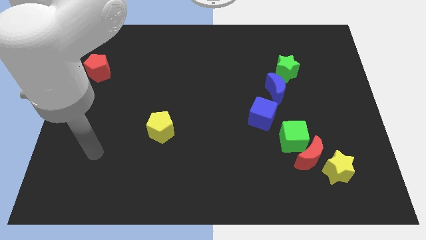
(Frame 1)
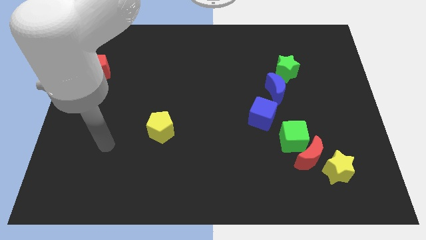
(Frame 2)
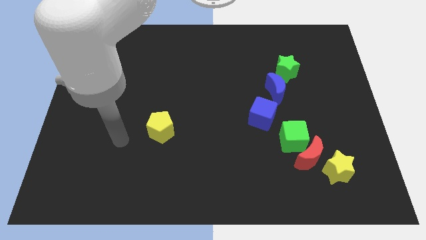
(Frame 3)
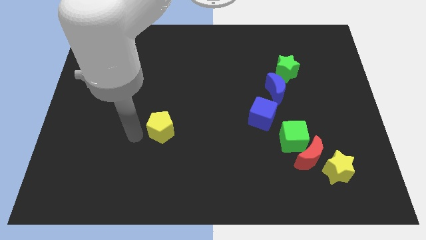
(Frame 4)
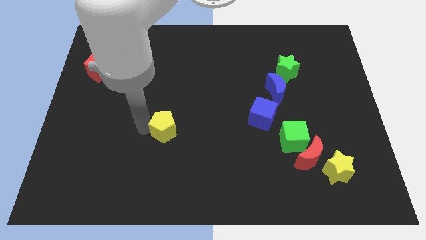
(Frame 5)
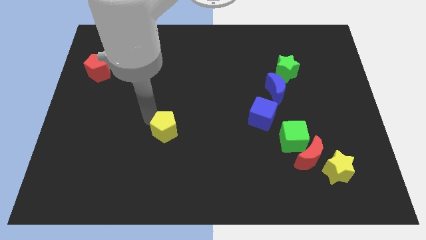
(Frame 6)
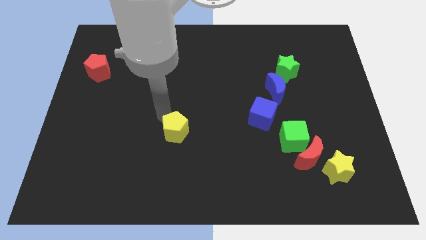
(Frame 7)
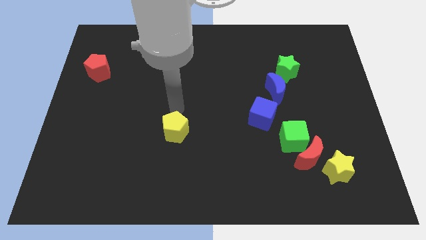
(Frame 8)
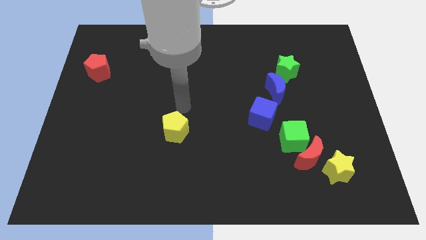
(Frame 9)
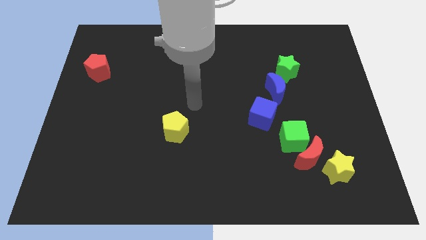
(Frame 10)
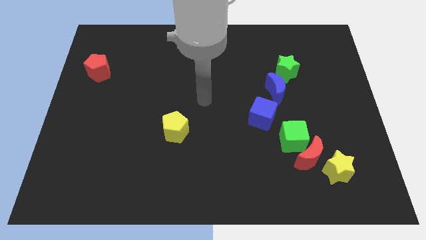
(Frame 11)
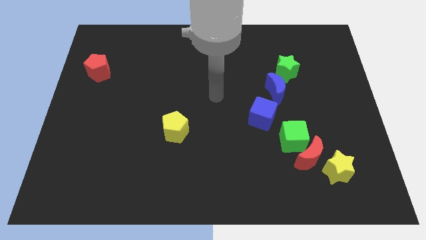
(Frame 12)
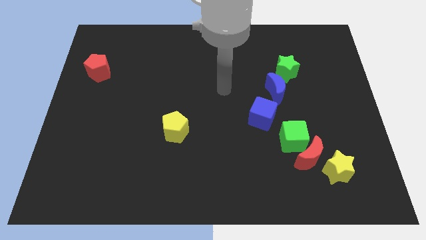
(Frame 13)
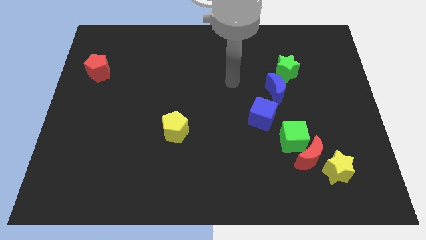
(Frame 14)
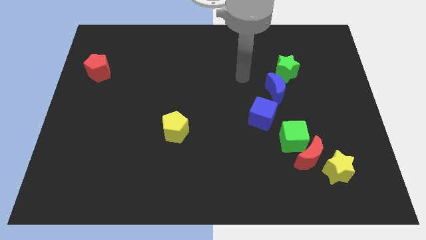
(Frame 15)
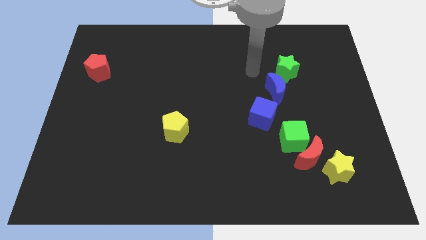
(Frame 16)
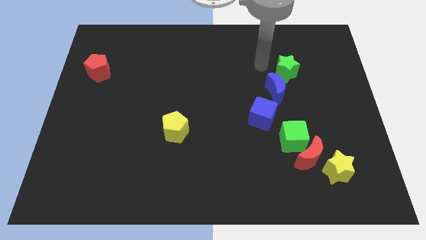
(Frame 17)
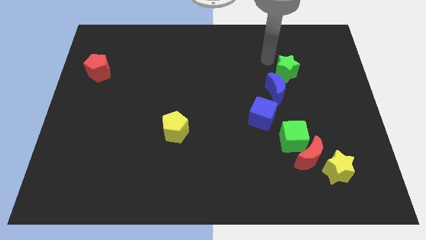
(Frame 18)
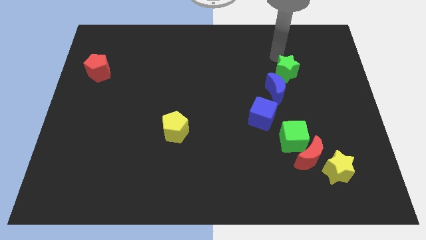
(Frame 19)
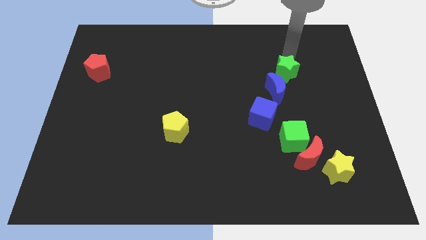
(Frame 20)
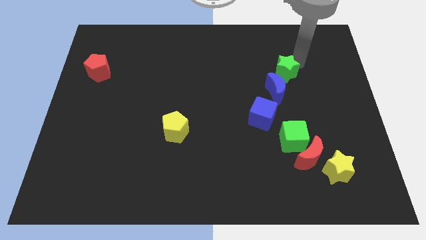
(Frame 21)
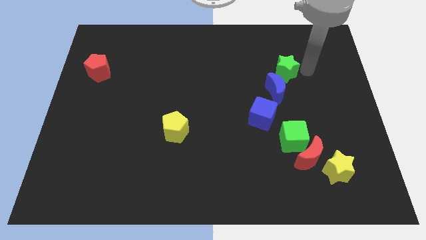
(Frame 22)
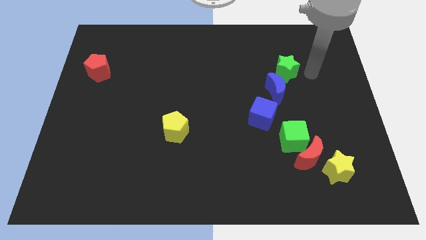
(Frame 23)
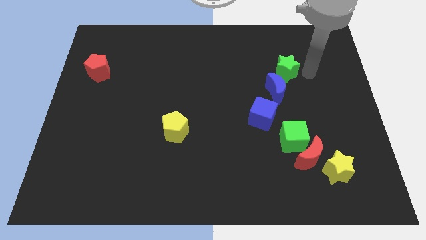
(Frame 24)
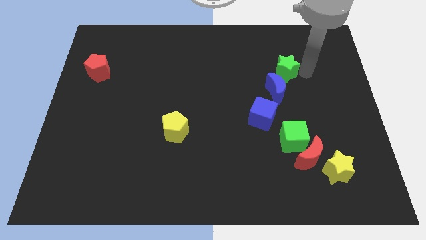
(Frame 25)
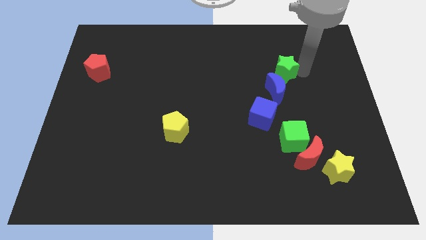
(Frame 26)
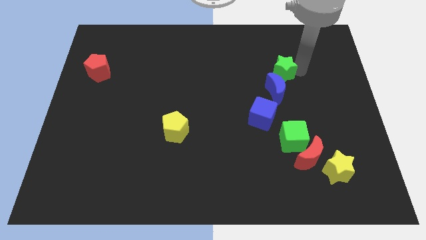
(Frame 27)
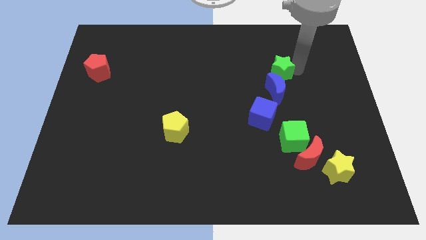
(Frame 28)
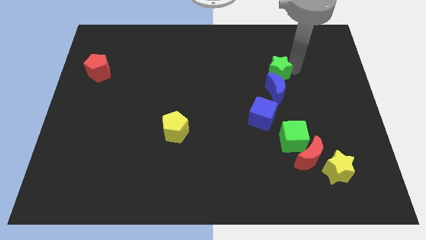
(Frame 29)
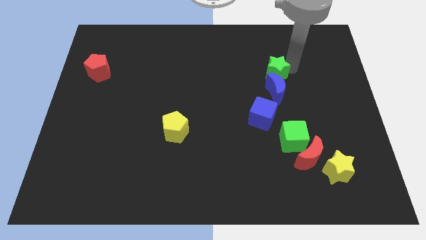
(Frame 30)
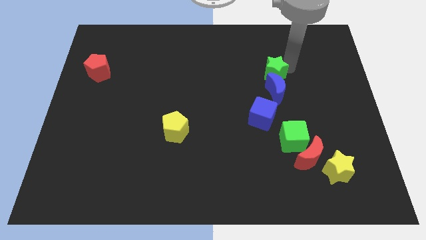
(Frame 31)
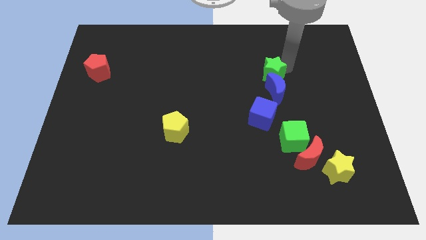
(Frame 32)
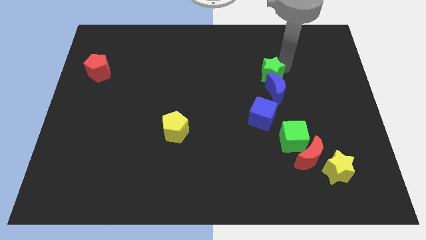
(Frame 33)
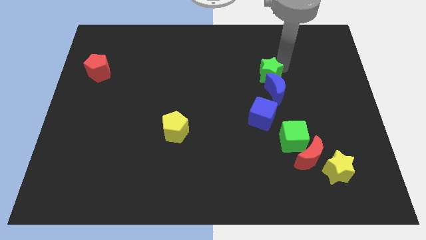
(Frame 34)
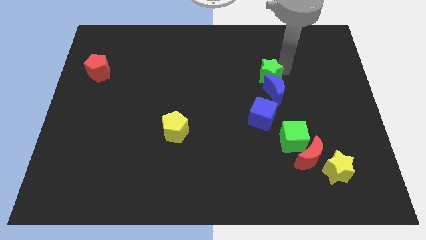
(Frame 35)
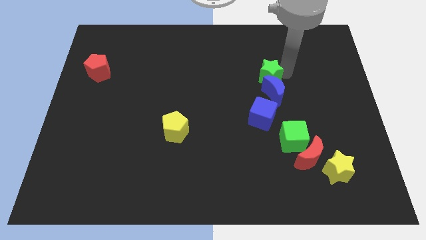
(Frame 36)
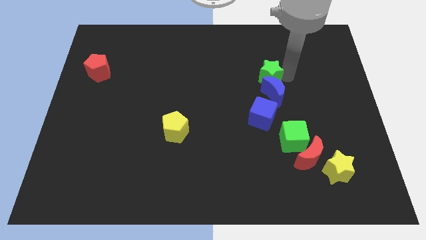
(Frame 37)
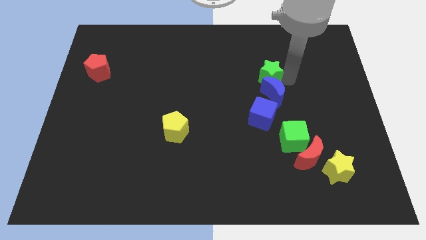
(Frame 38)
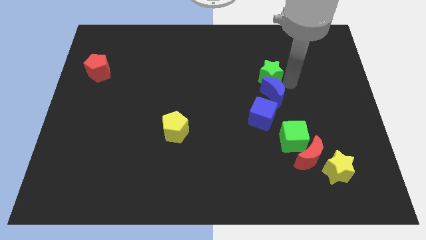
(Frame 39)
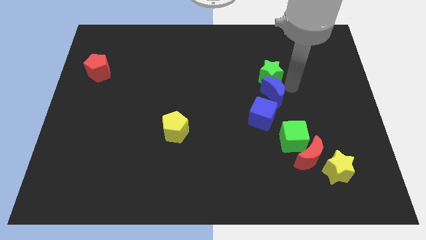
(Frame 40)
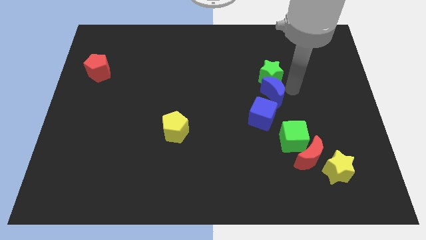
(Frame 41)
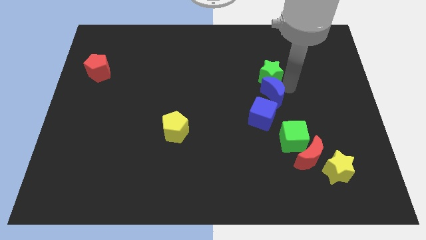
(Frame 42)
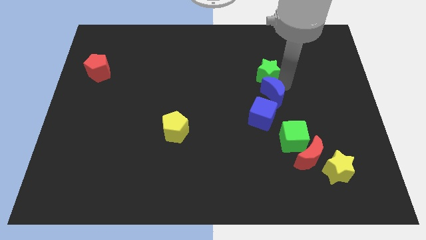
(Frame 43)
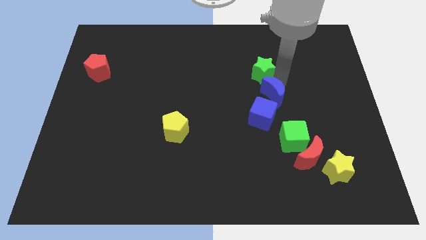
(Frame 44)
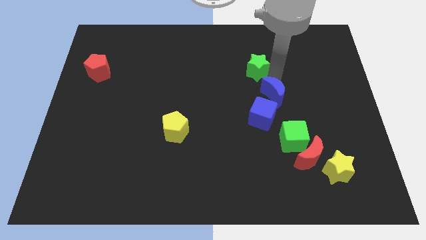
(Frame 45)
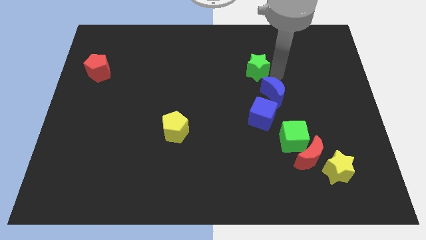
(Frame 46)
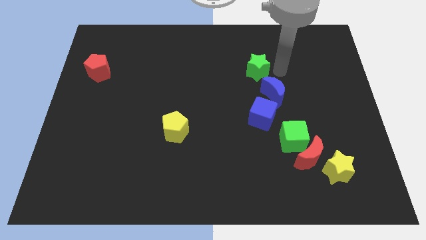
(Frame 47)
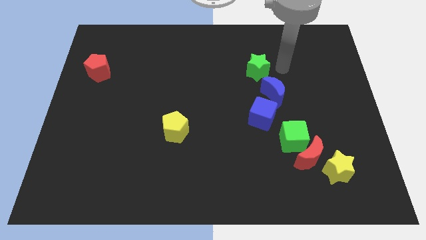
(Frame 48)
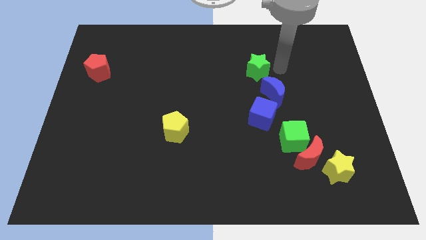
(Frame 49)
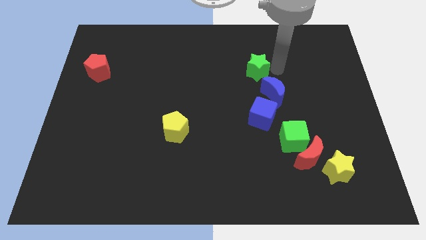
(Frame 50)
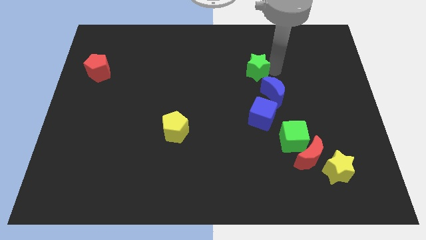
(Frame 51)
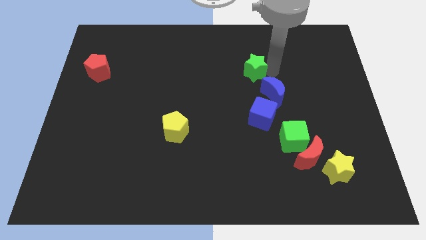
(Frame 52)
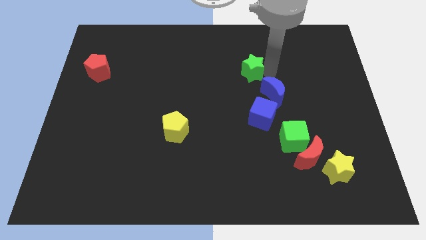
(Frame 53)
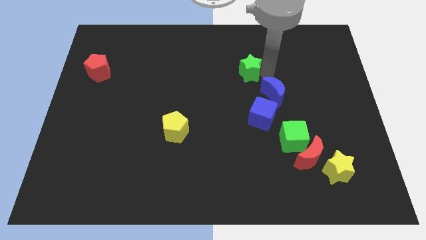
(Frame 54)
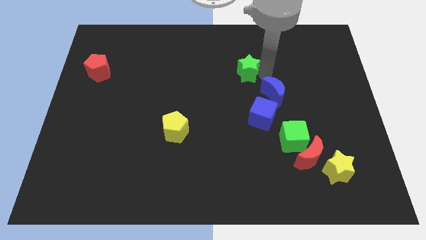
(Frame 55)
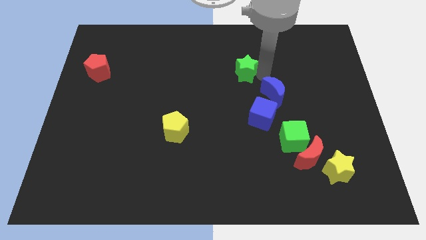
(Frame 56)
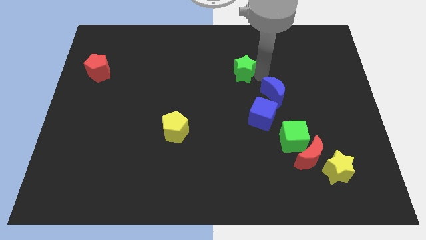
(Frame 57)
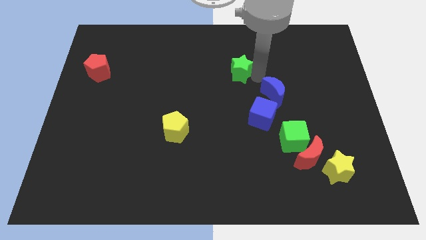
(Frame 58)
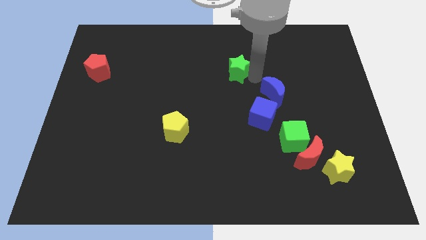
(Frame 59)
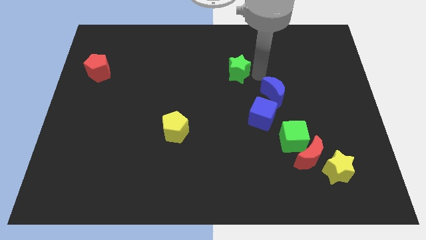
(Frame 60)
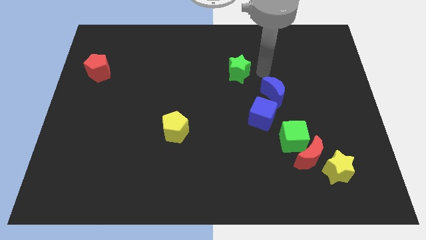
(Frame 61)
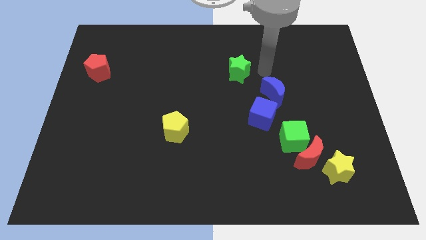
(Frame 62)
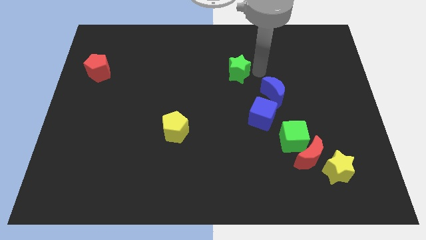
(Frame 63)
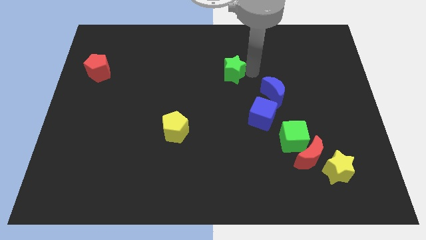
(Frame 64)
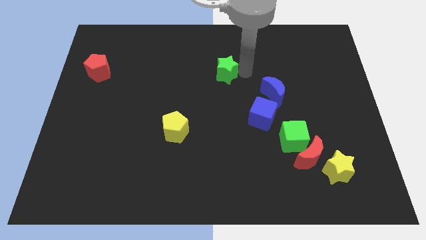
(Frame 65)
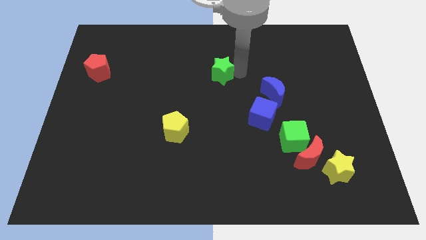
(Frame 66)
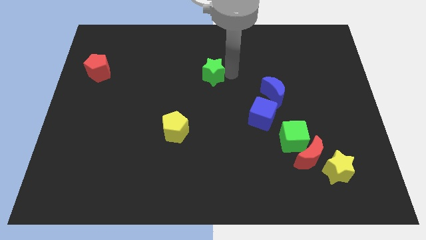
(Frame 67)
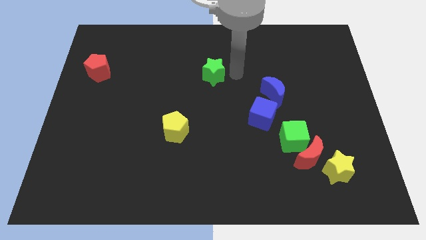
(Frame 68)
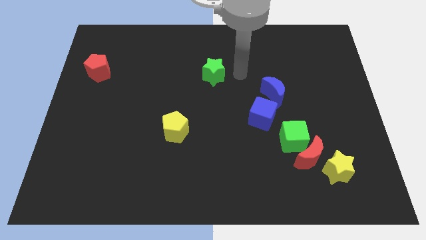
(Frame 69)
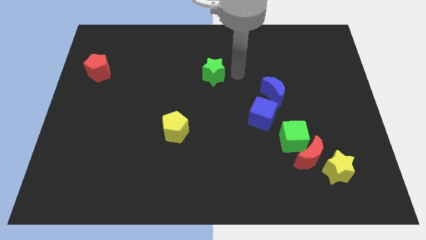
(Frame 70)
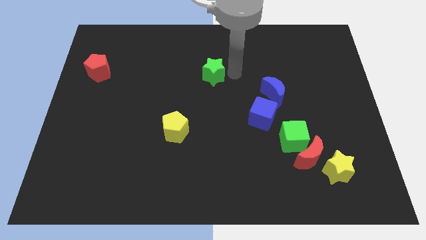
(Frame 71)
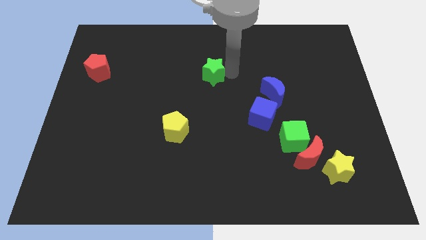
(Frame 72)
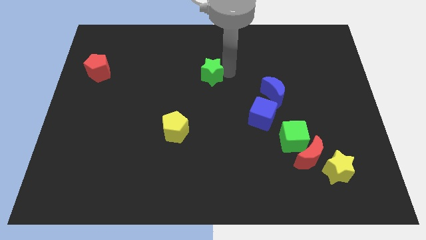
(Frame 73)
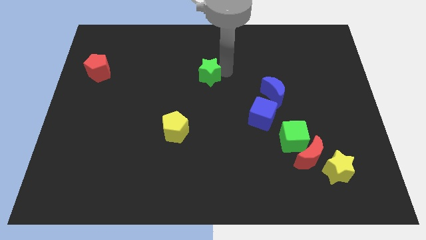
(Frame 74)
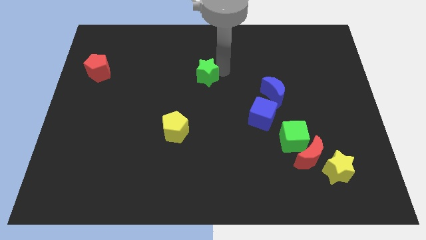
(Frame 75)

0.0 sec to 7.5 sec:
move the green star left

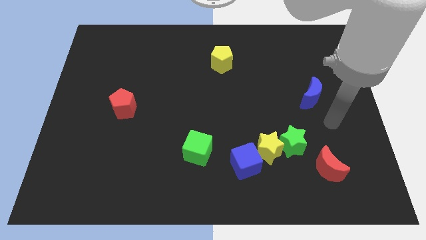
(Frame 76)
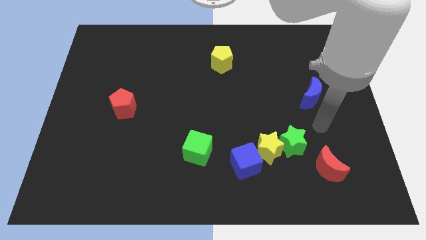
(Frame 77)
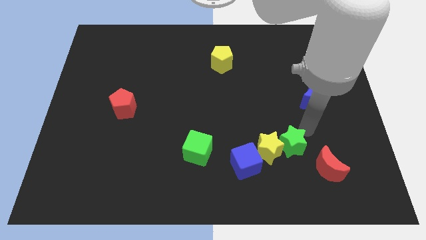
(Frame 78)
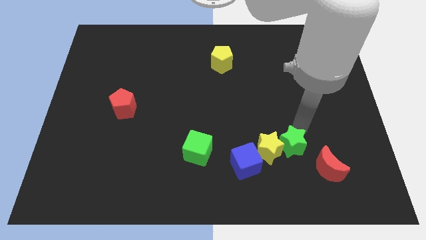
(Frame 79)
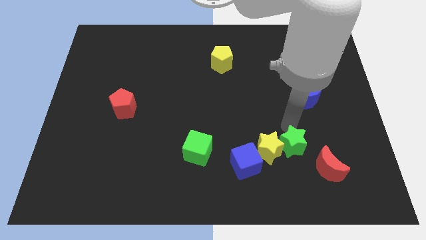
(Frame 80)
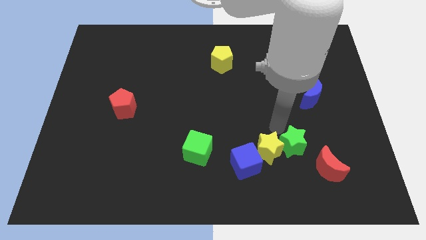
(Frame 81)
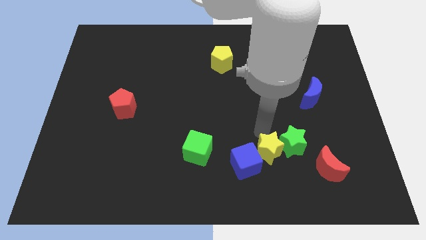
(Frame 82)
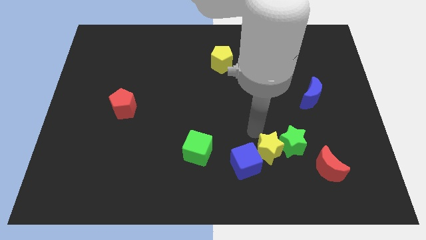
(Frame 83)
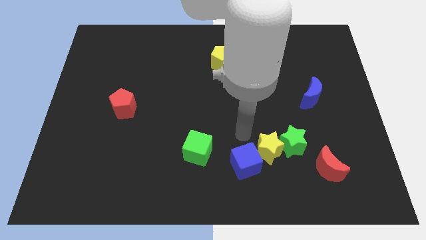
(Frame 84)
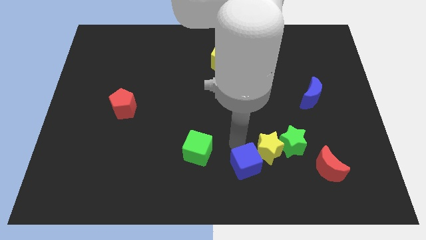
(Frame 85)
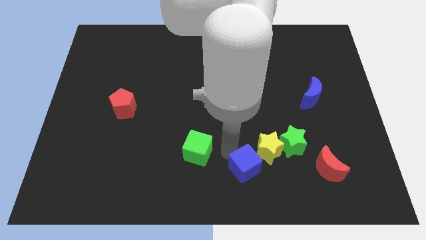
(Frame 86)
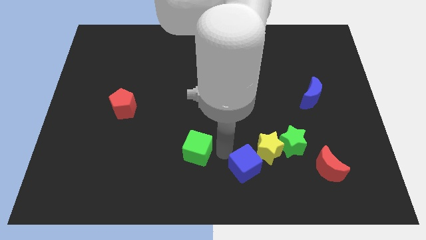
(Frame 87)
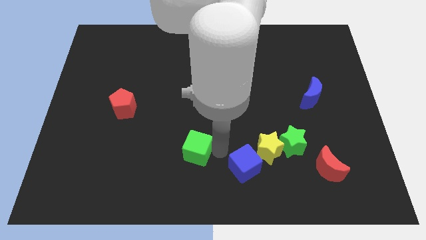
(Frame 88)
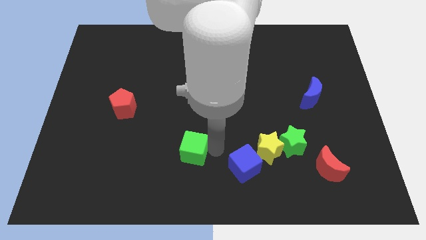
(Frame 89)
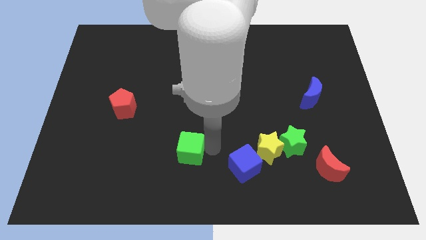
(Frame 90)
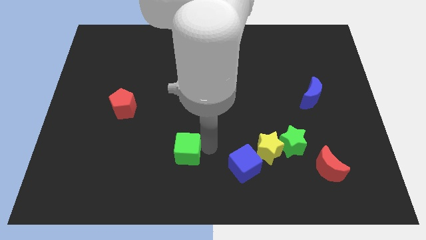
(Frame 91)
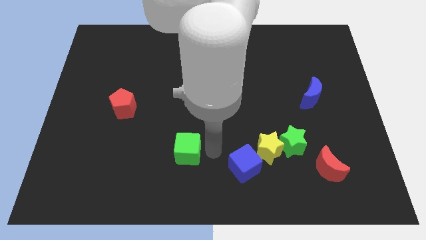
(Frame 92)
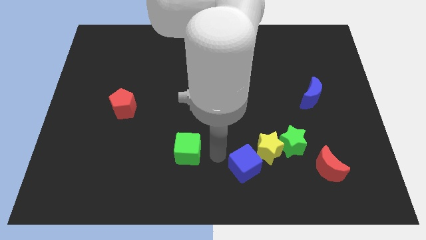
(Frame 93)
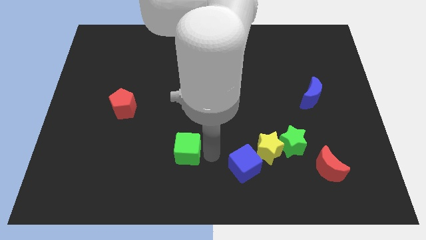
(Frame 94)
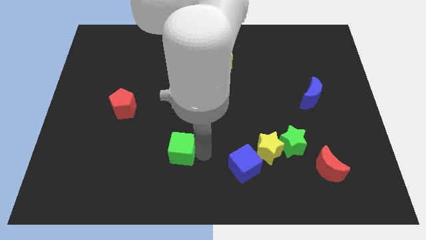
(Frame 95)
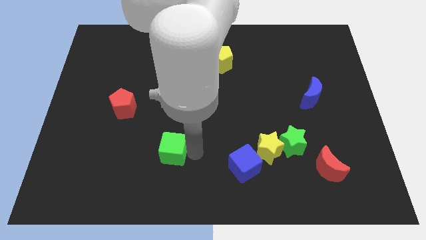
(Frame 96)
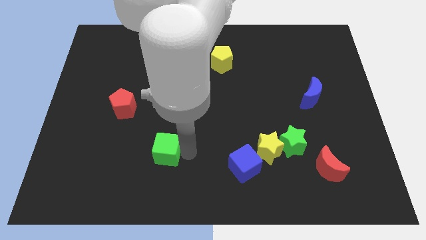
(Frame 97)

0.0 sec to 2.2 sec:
move the green cube a bit left
